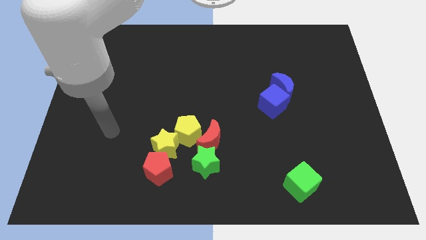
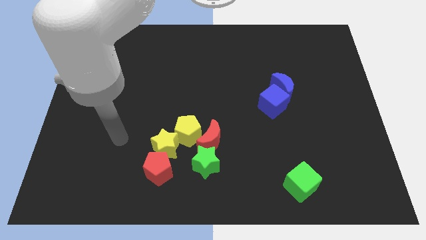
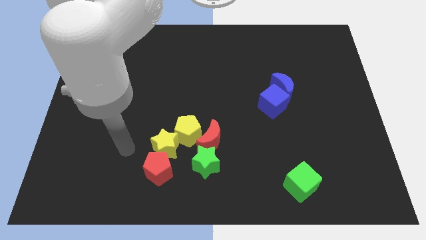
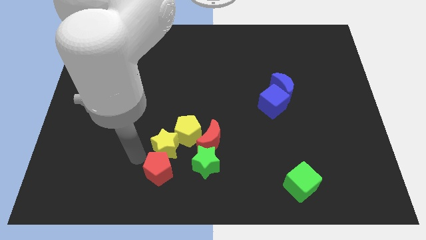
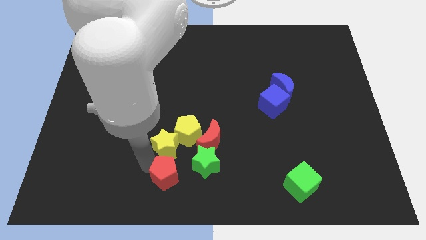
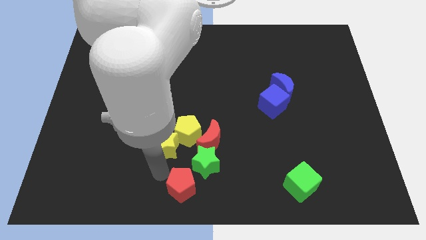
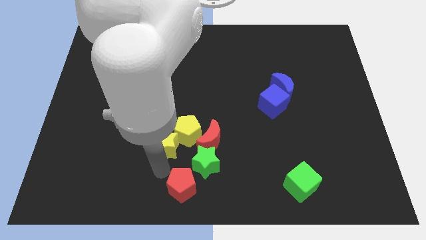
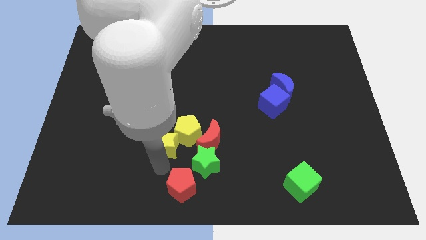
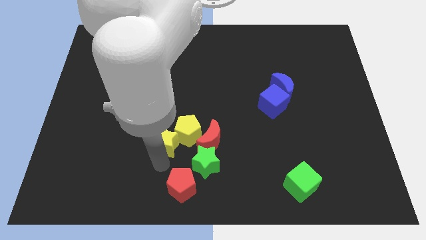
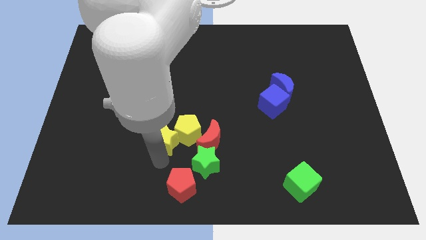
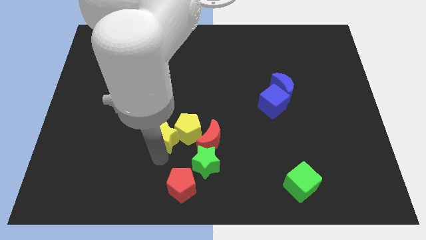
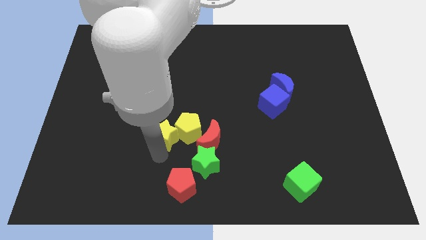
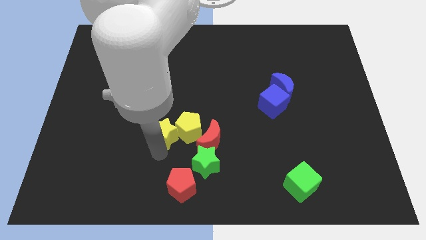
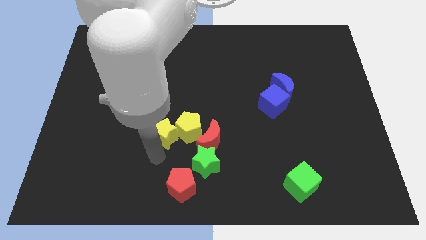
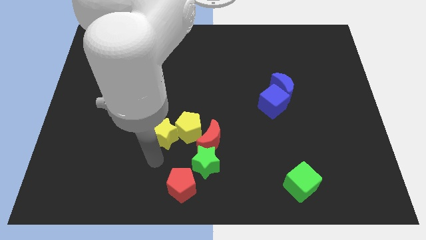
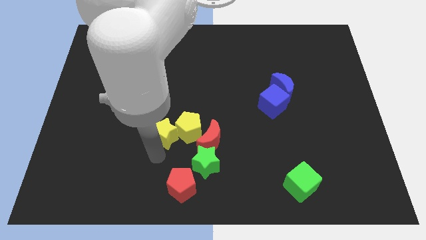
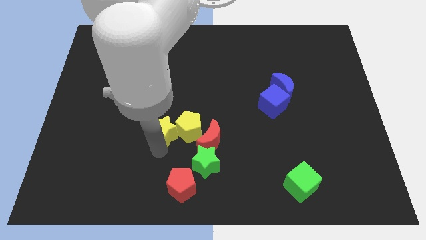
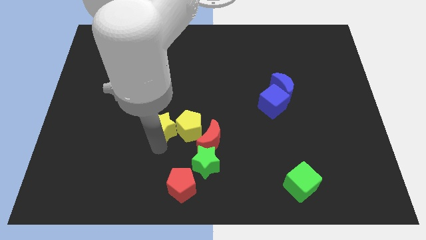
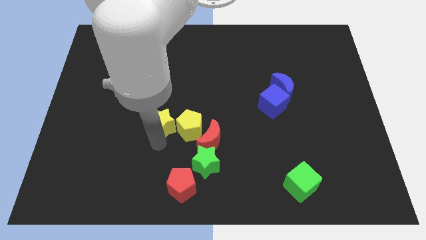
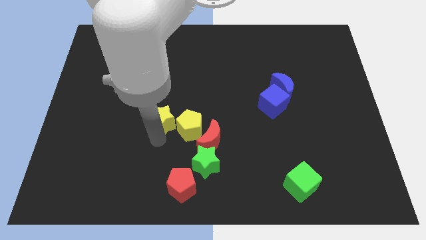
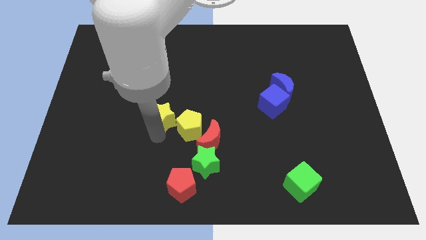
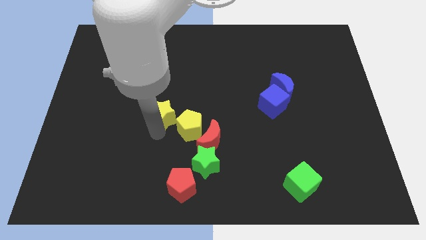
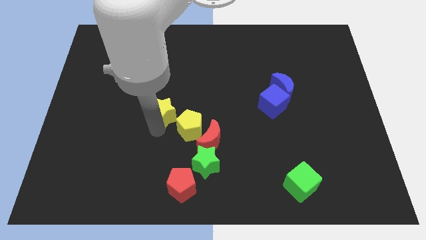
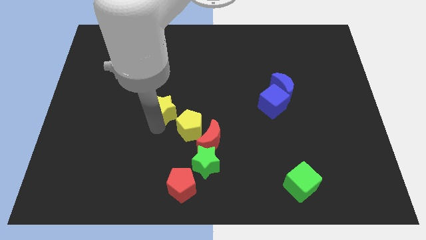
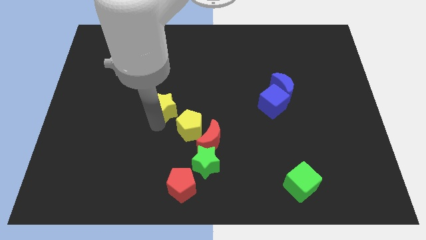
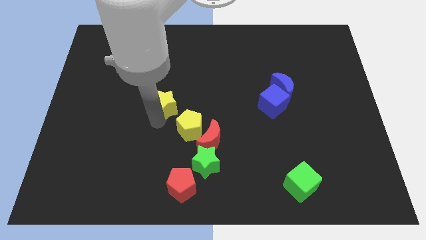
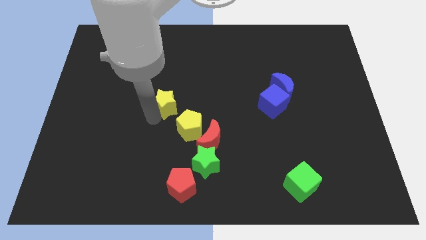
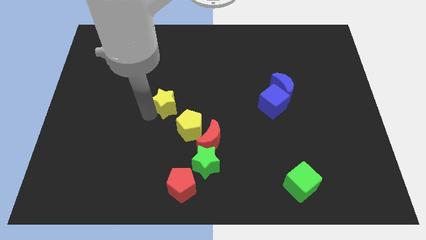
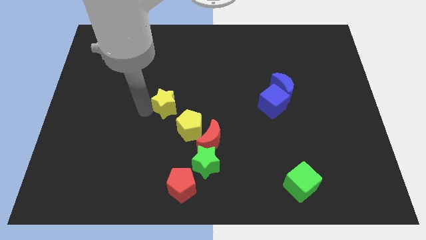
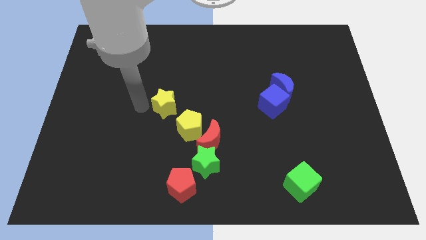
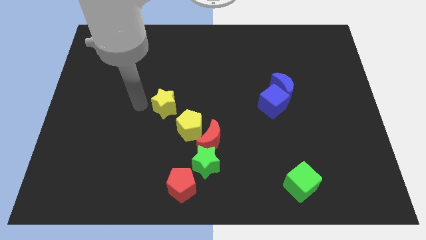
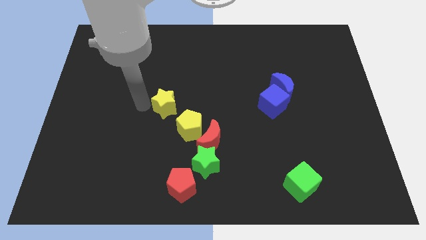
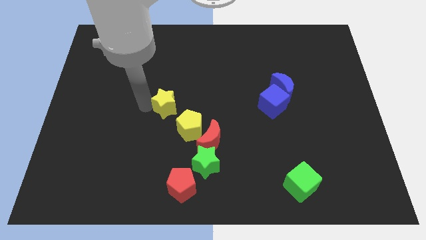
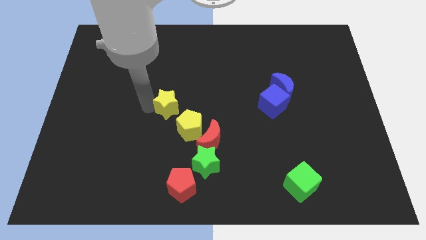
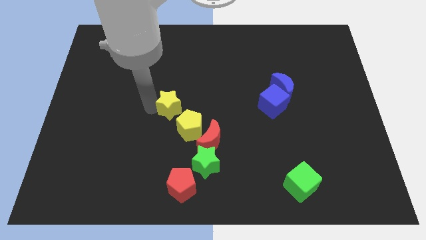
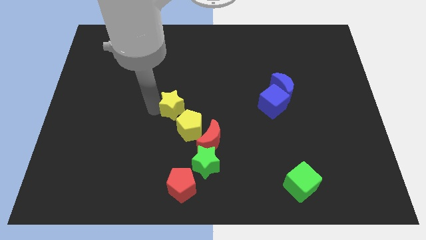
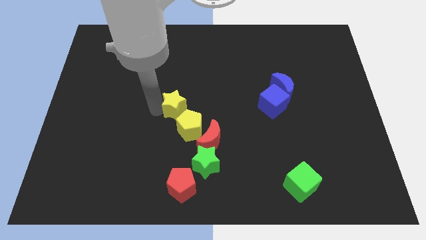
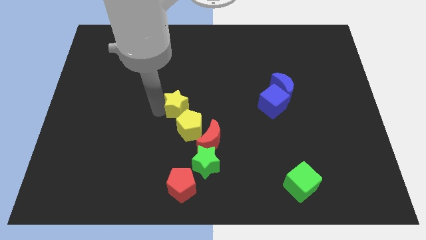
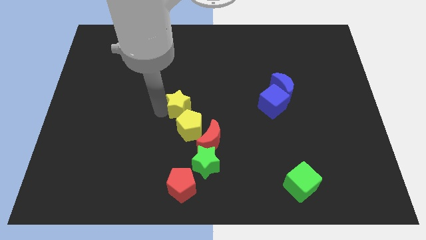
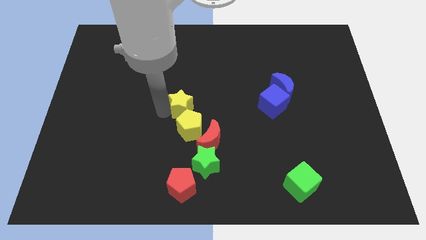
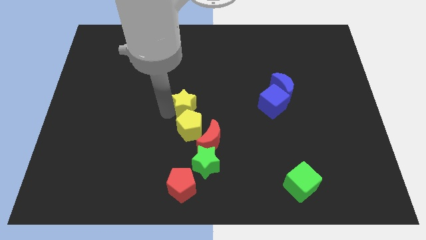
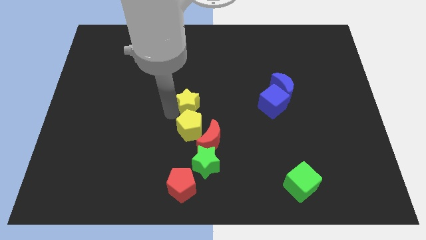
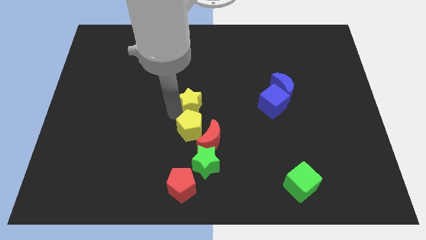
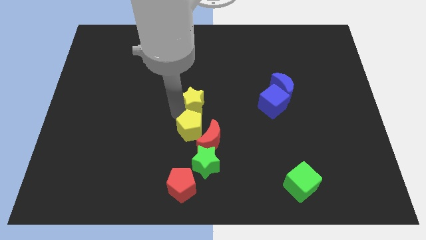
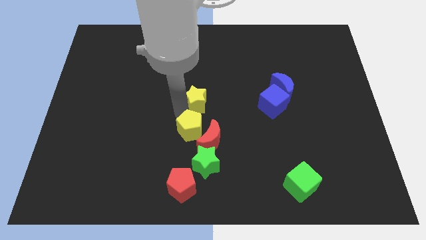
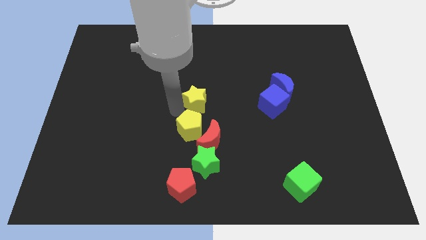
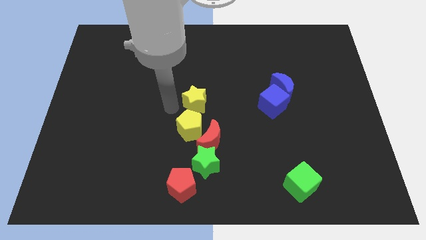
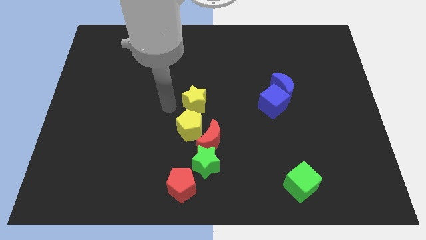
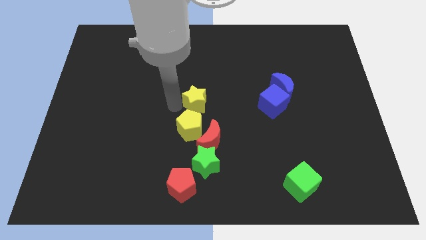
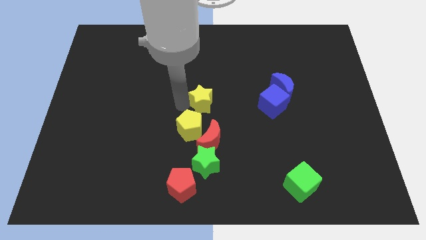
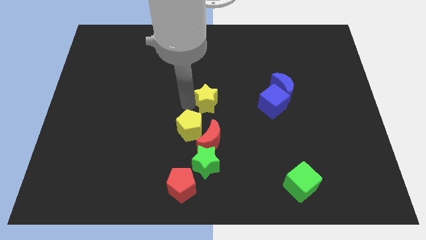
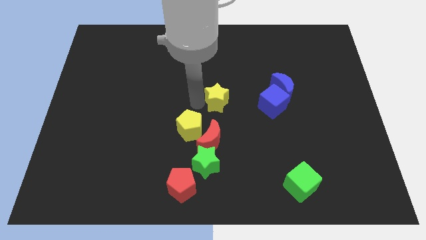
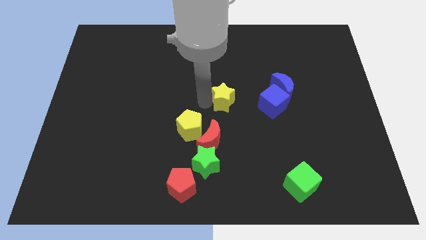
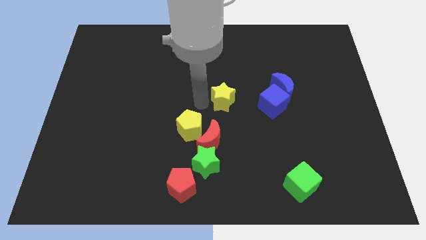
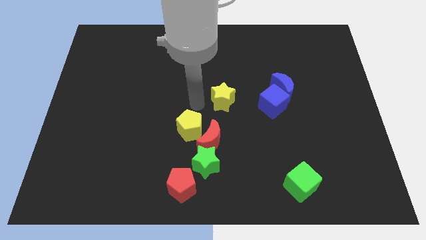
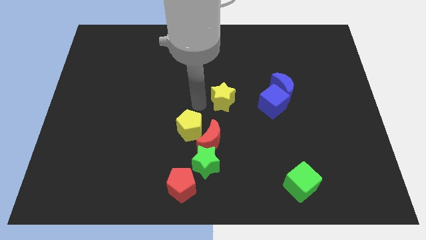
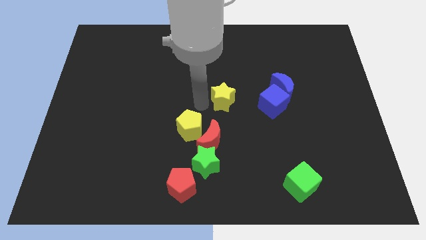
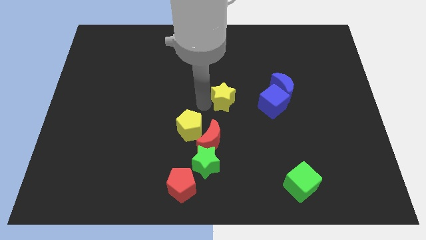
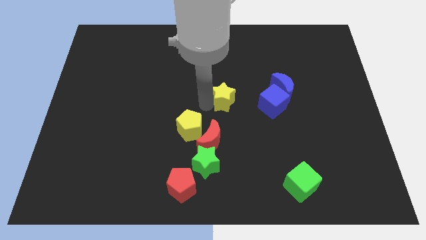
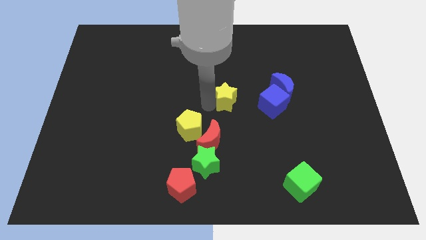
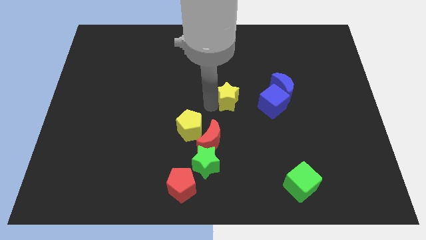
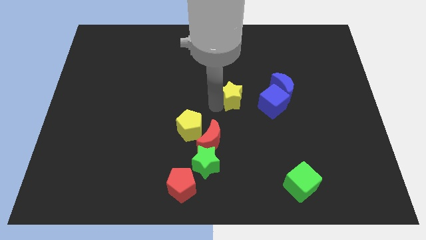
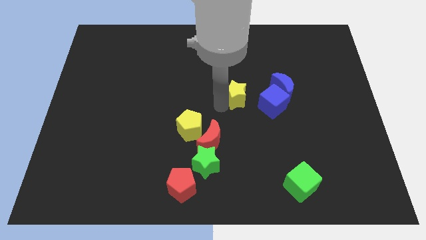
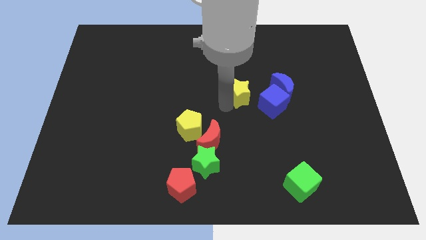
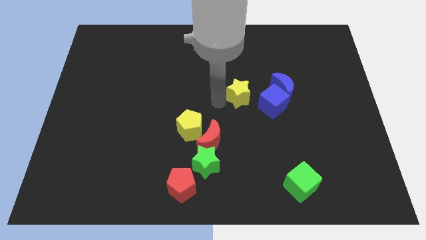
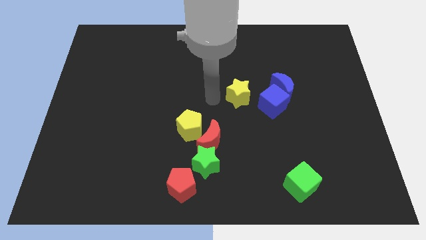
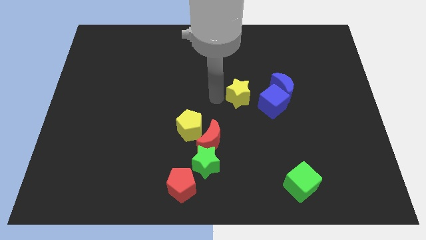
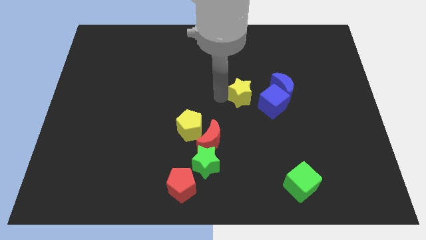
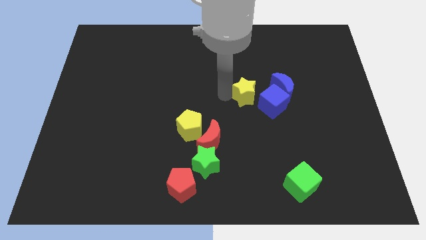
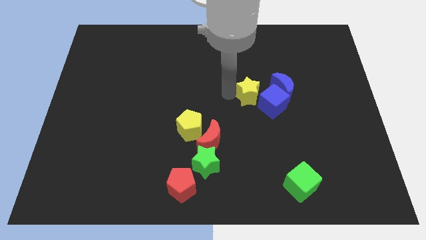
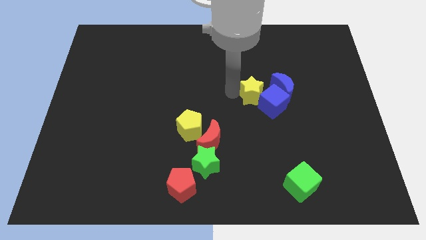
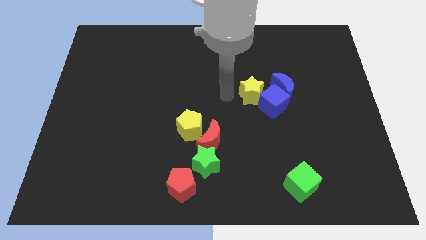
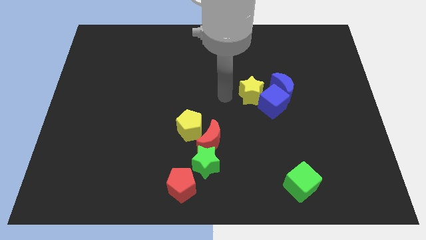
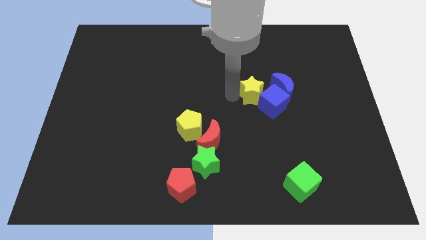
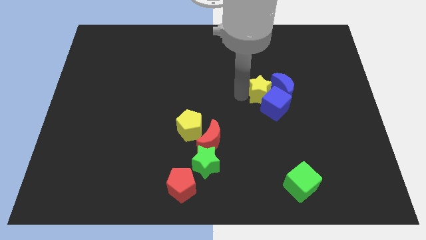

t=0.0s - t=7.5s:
push the yellow star to the blue moon
